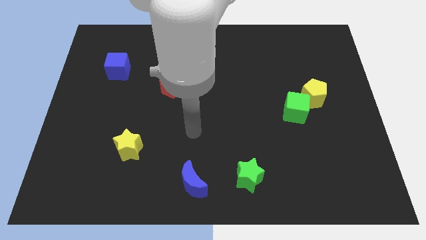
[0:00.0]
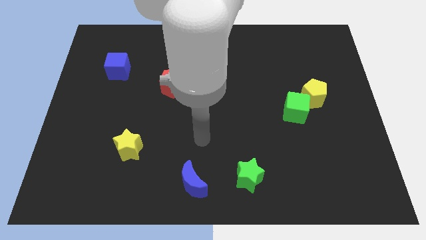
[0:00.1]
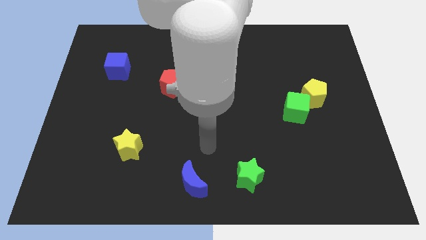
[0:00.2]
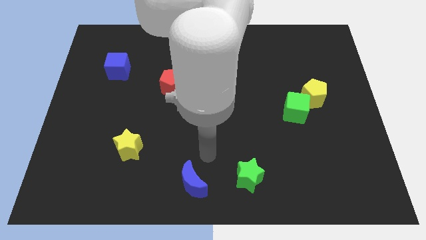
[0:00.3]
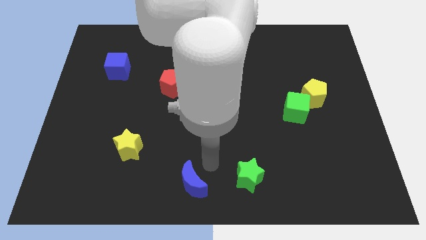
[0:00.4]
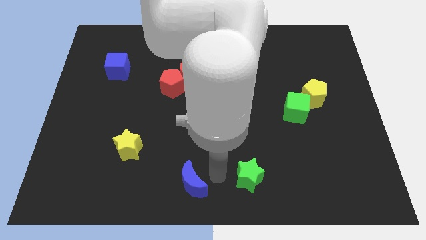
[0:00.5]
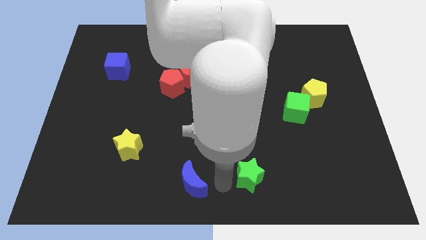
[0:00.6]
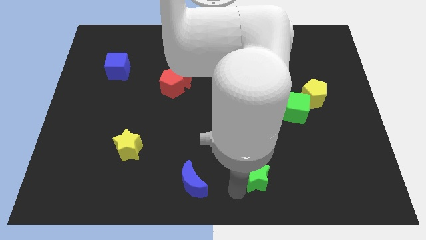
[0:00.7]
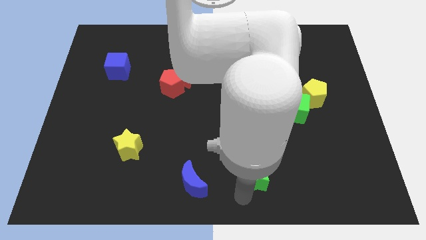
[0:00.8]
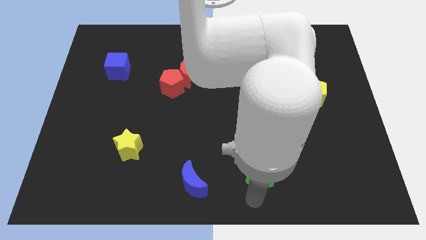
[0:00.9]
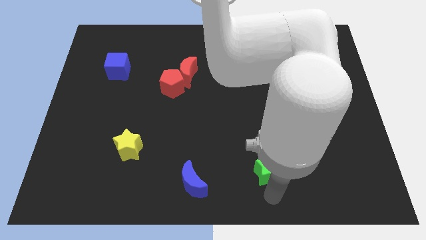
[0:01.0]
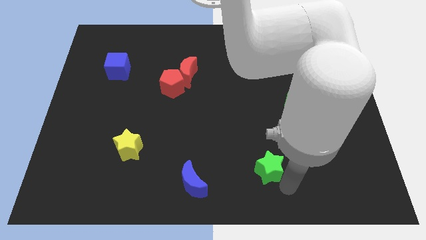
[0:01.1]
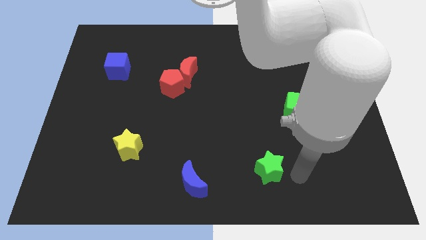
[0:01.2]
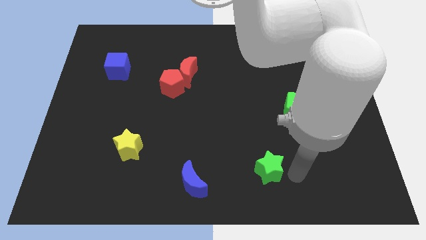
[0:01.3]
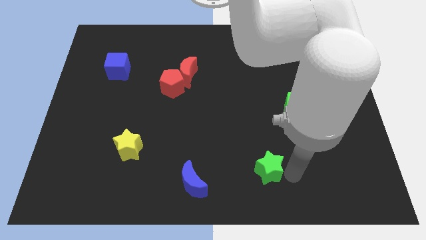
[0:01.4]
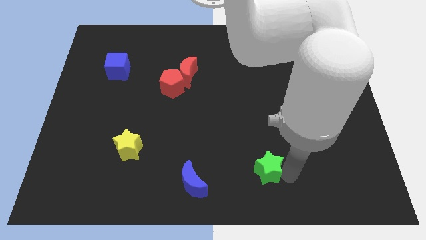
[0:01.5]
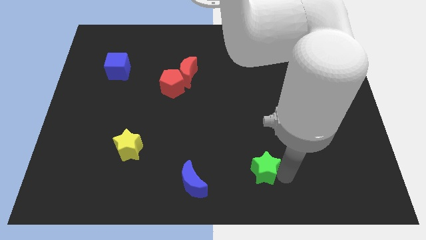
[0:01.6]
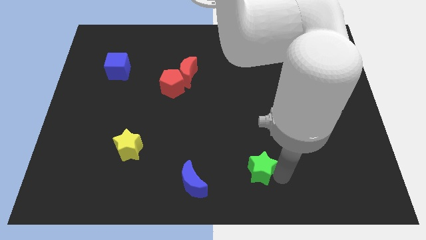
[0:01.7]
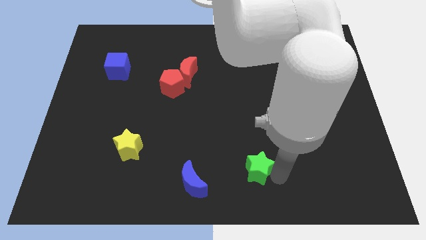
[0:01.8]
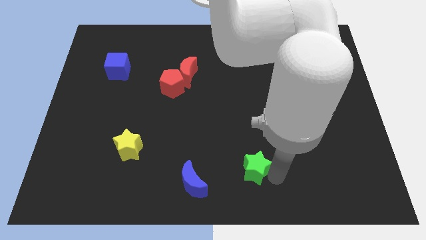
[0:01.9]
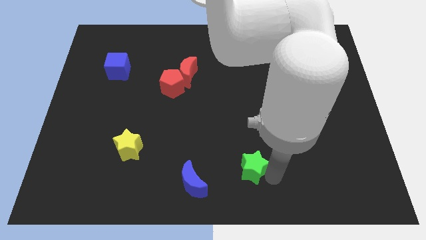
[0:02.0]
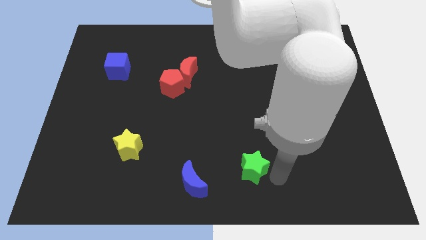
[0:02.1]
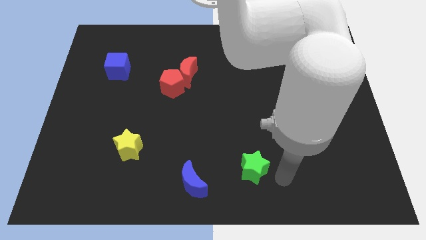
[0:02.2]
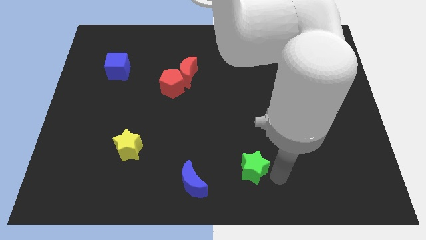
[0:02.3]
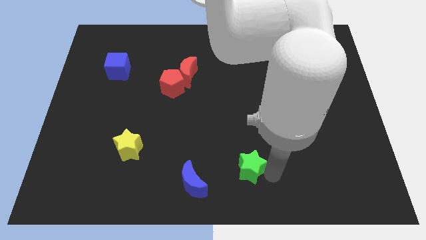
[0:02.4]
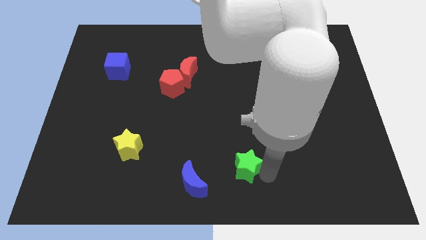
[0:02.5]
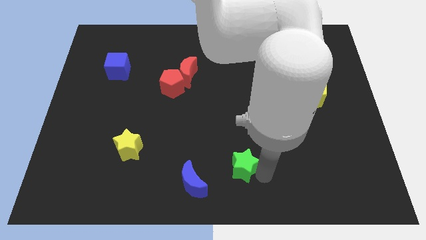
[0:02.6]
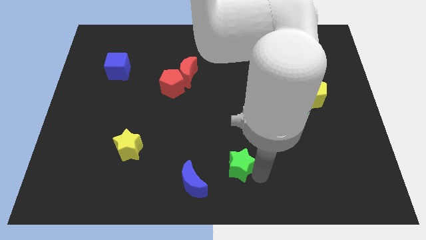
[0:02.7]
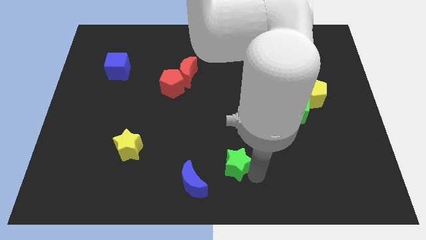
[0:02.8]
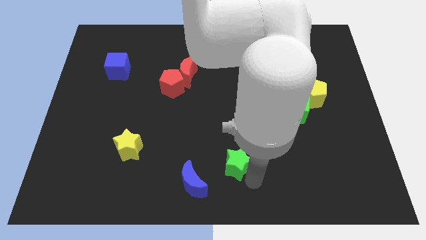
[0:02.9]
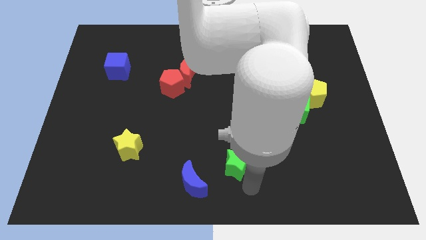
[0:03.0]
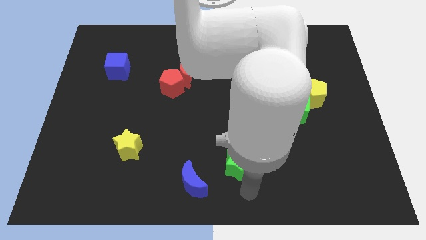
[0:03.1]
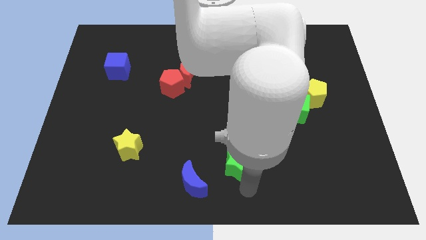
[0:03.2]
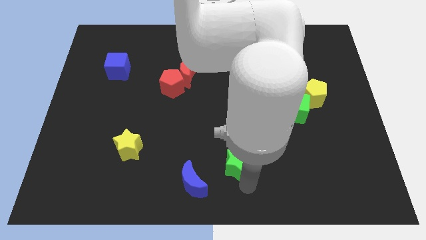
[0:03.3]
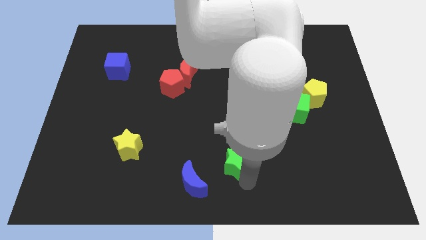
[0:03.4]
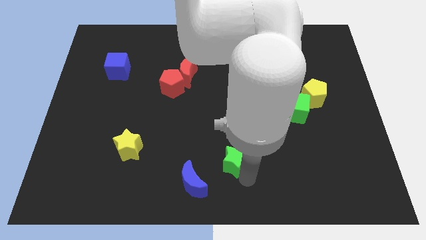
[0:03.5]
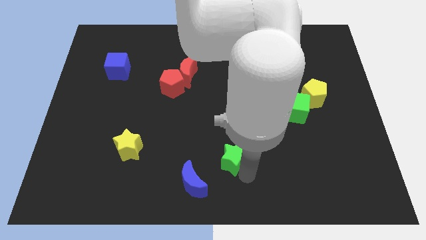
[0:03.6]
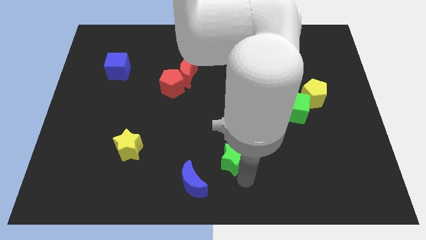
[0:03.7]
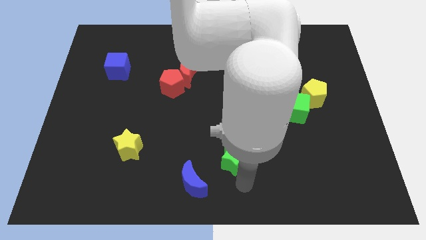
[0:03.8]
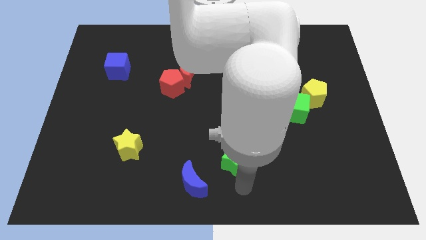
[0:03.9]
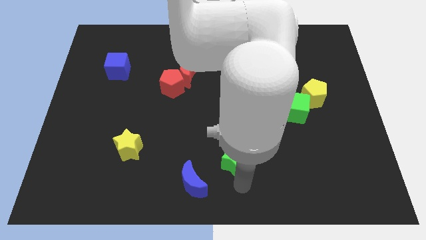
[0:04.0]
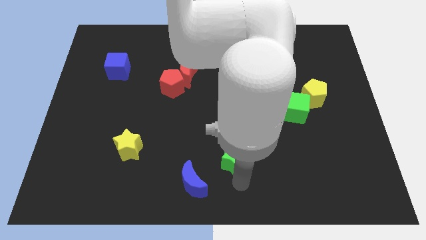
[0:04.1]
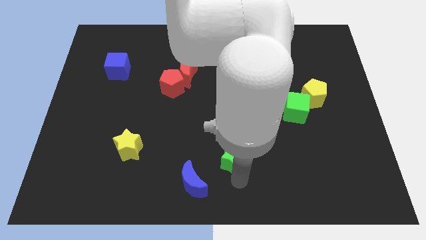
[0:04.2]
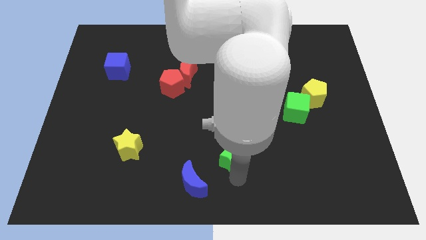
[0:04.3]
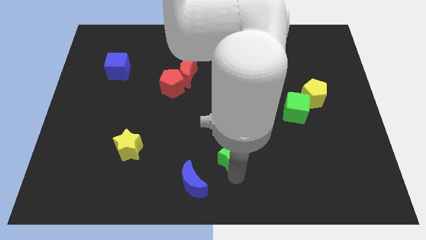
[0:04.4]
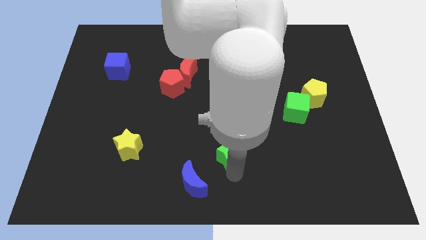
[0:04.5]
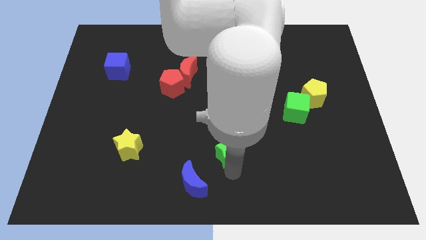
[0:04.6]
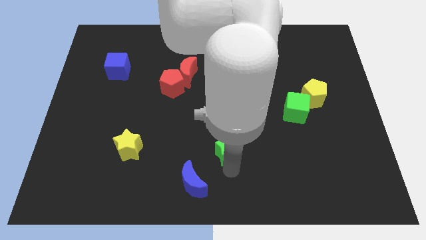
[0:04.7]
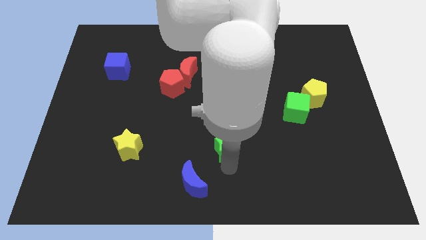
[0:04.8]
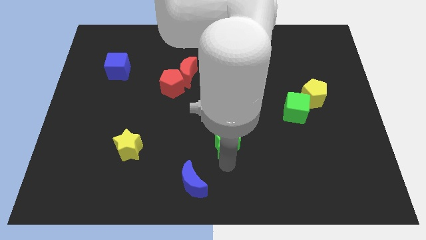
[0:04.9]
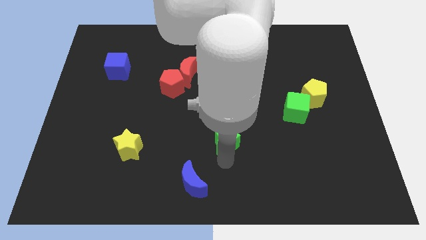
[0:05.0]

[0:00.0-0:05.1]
put the green star to the middle

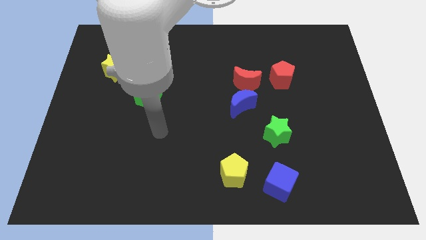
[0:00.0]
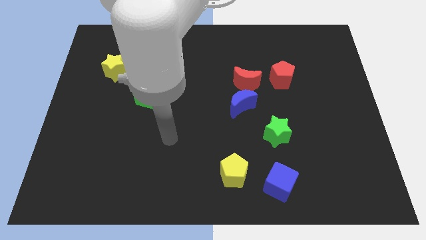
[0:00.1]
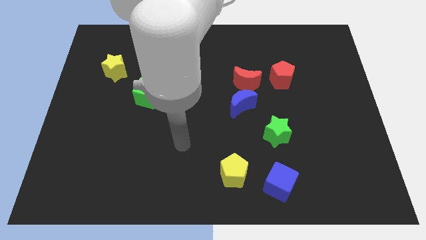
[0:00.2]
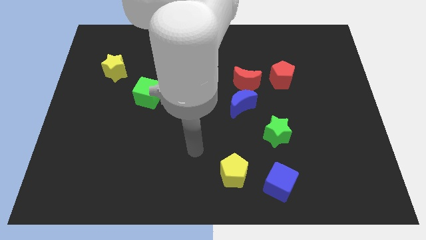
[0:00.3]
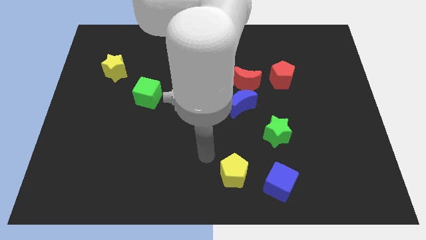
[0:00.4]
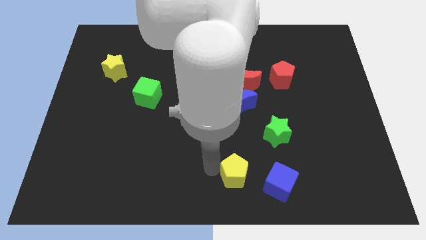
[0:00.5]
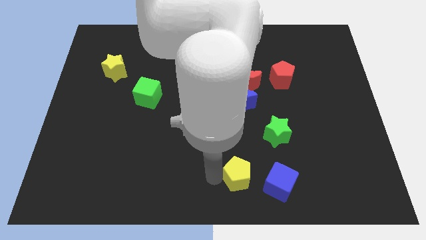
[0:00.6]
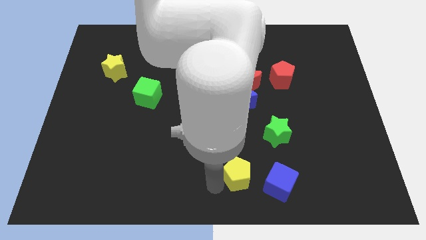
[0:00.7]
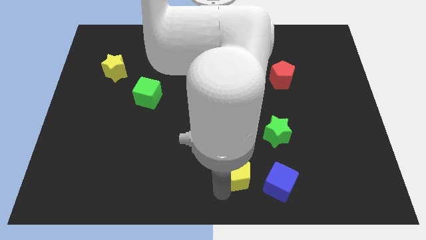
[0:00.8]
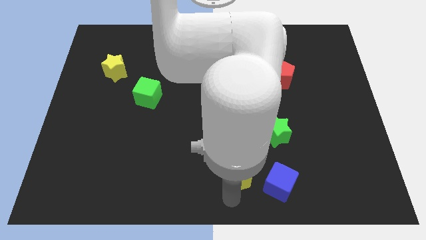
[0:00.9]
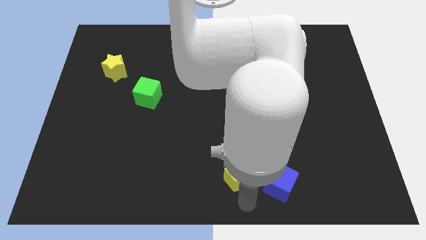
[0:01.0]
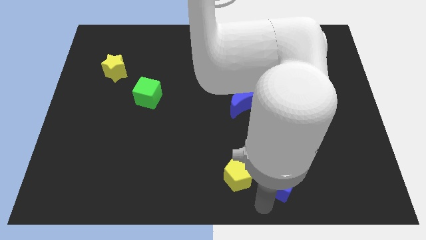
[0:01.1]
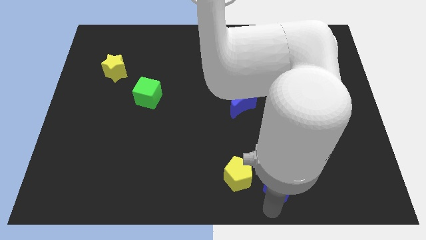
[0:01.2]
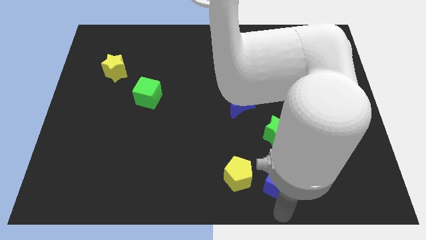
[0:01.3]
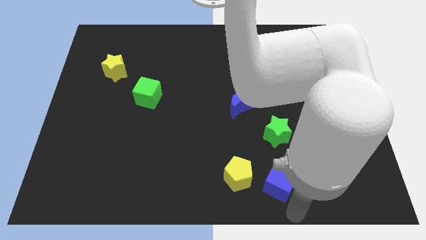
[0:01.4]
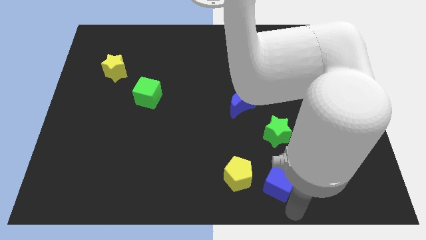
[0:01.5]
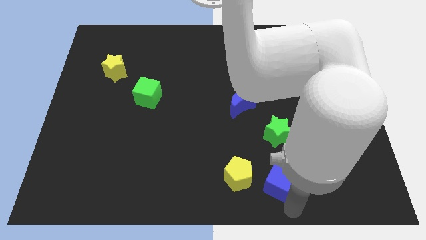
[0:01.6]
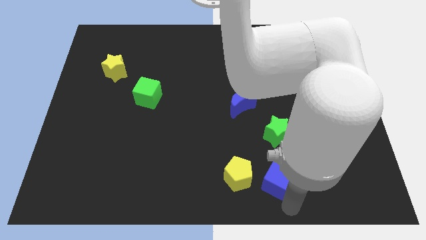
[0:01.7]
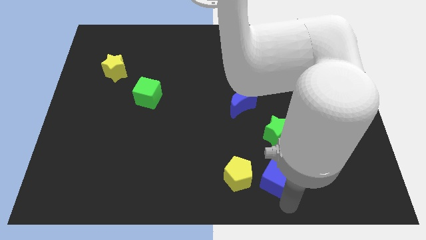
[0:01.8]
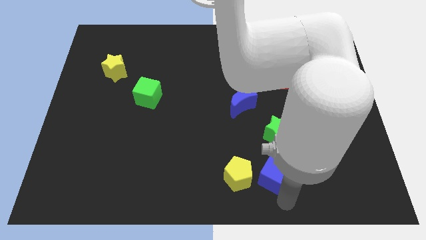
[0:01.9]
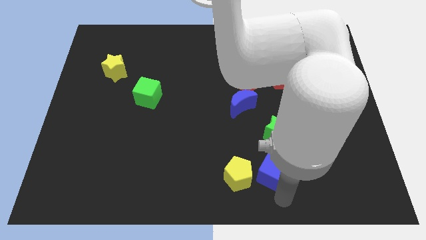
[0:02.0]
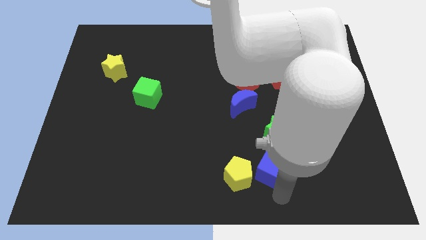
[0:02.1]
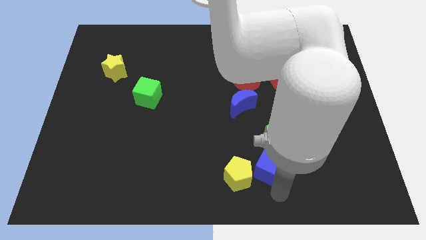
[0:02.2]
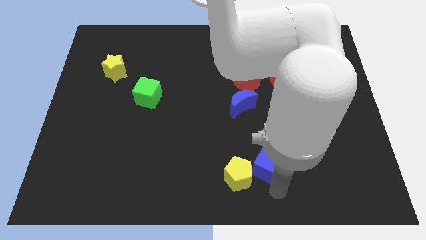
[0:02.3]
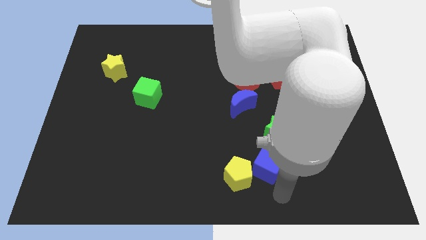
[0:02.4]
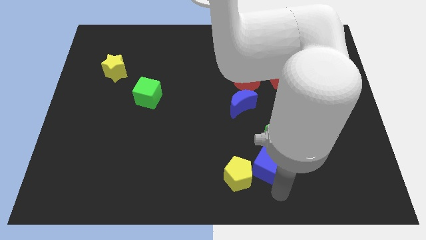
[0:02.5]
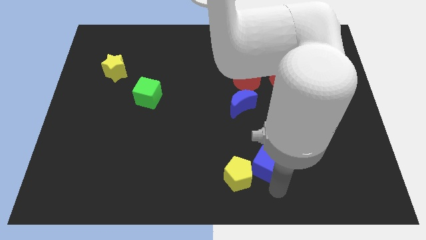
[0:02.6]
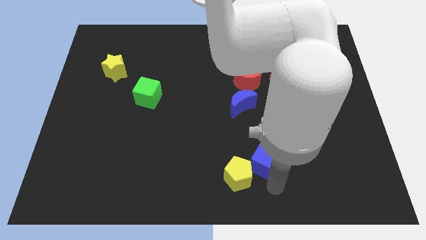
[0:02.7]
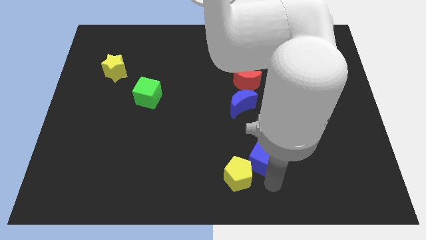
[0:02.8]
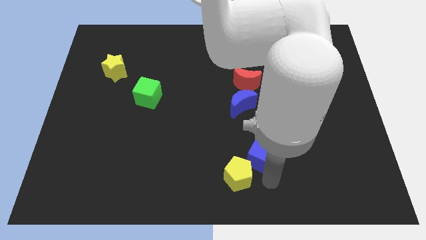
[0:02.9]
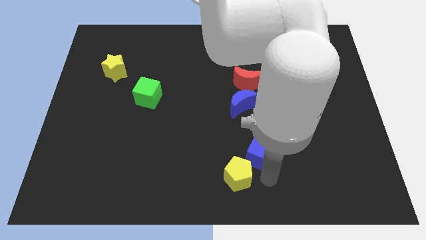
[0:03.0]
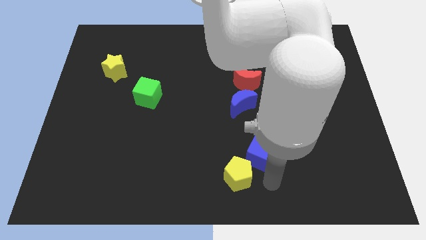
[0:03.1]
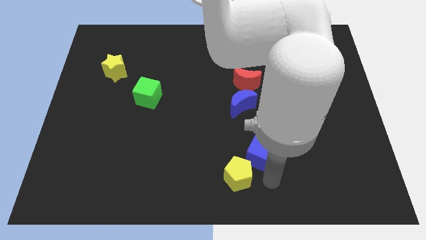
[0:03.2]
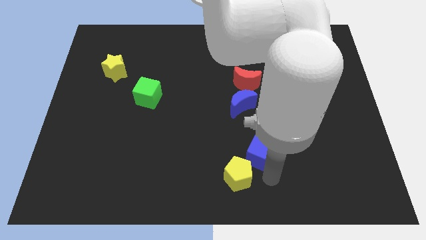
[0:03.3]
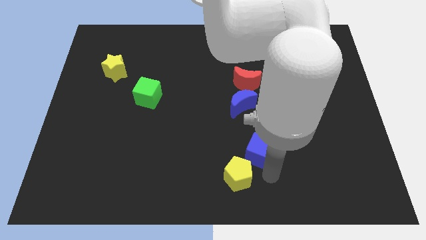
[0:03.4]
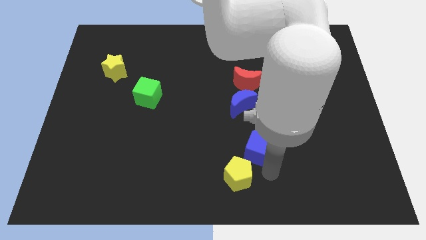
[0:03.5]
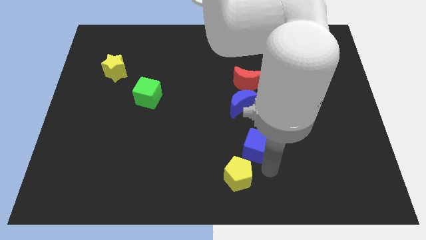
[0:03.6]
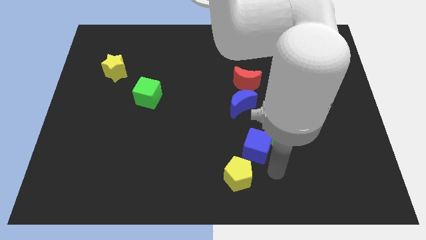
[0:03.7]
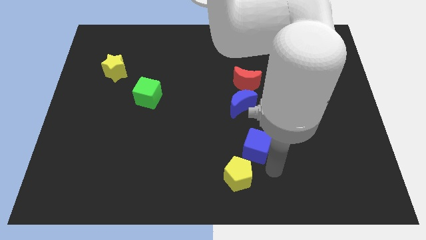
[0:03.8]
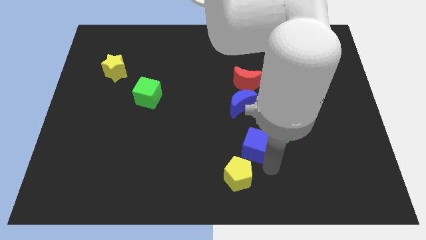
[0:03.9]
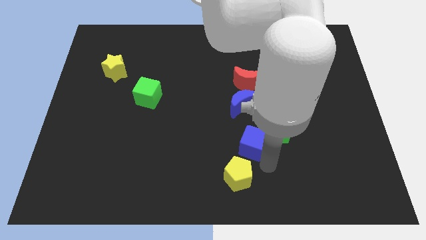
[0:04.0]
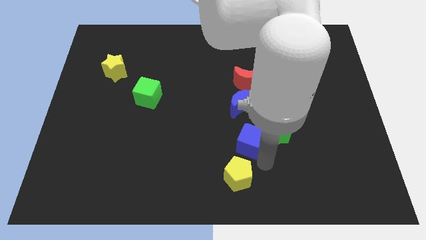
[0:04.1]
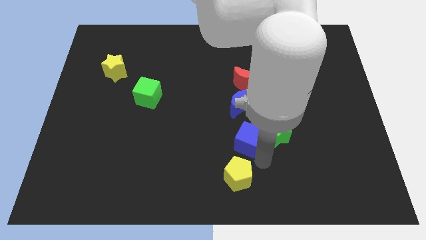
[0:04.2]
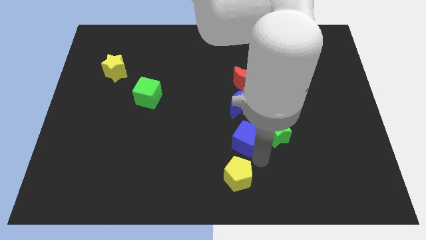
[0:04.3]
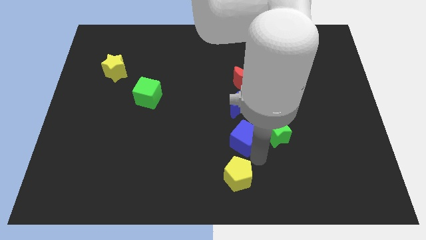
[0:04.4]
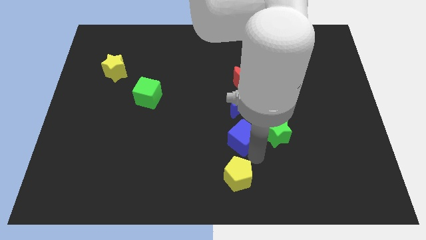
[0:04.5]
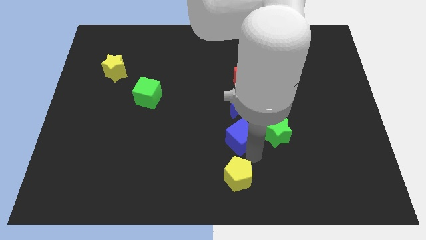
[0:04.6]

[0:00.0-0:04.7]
move the blue cube to the center
